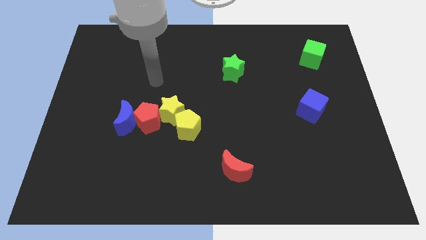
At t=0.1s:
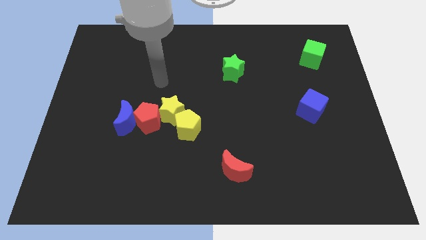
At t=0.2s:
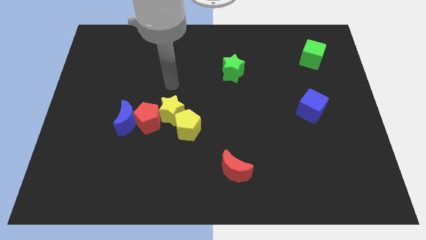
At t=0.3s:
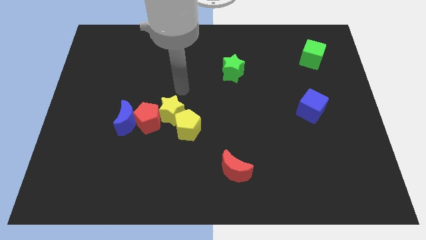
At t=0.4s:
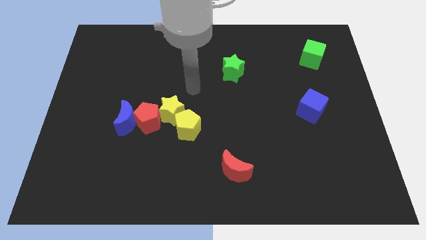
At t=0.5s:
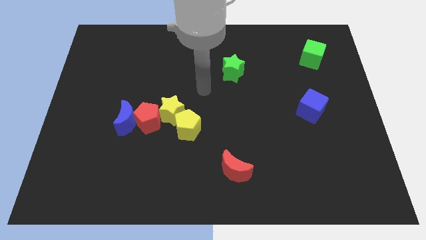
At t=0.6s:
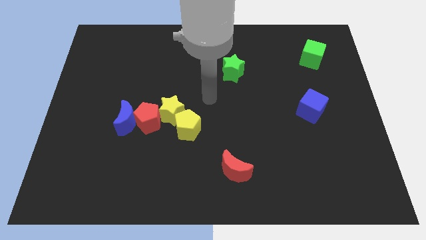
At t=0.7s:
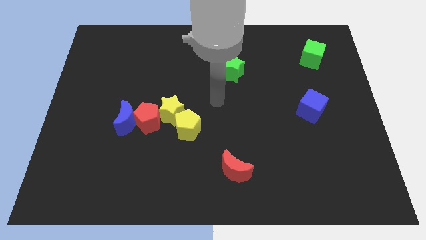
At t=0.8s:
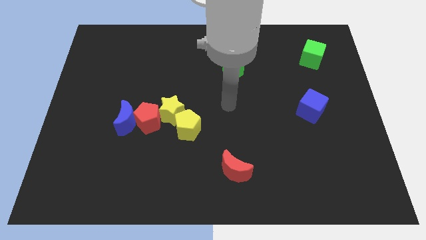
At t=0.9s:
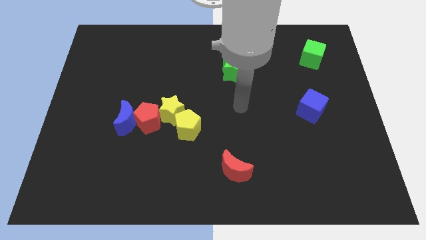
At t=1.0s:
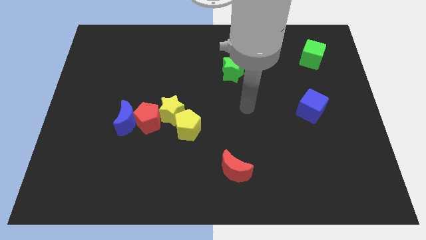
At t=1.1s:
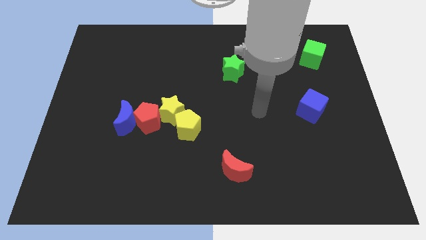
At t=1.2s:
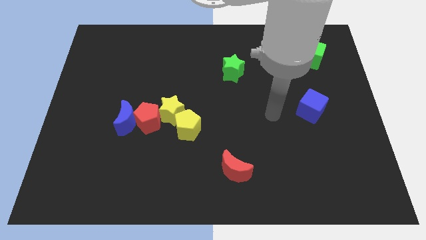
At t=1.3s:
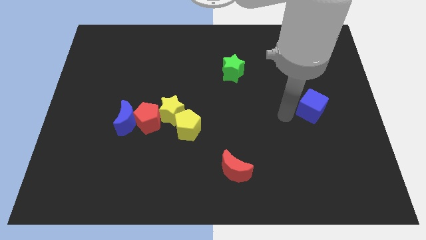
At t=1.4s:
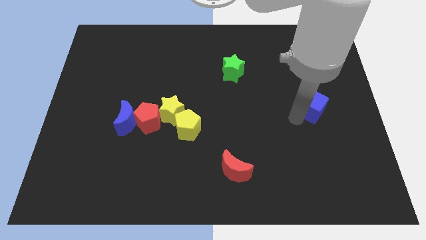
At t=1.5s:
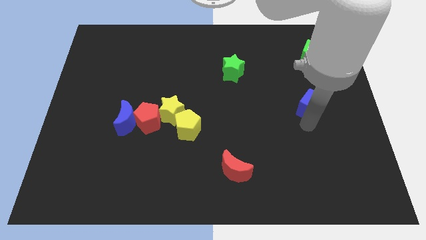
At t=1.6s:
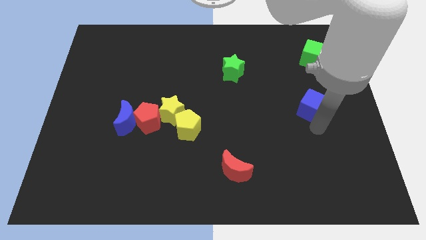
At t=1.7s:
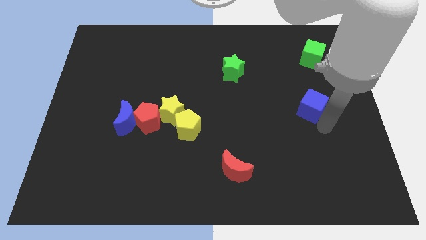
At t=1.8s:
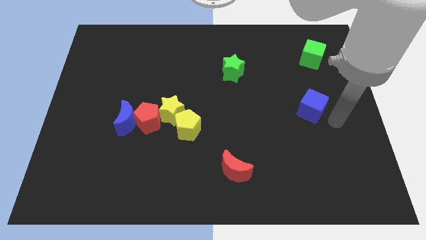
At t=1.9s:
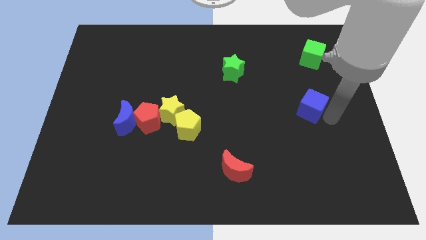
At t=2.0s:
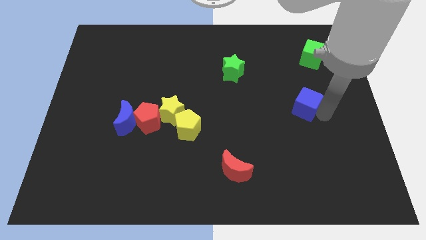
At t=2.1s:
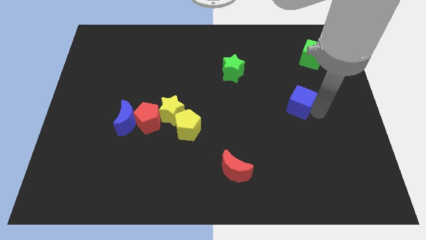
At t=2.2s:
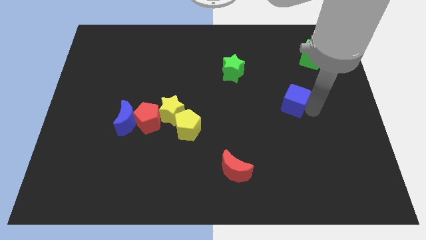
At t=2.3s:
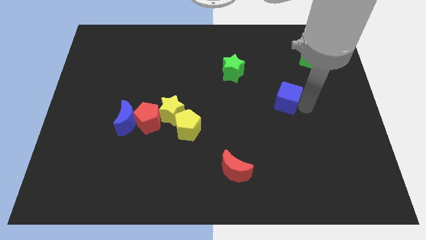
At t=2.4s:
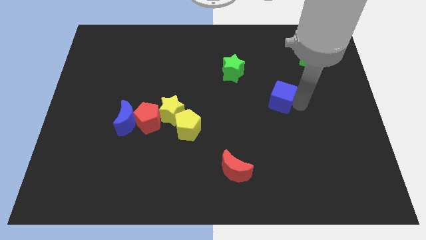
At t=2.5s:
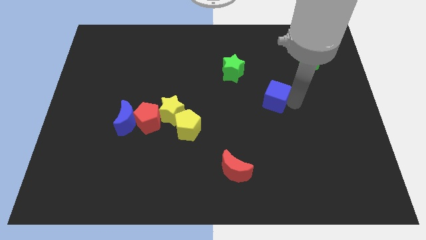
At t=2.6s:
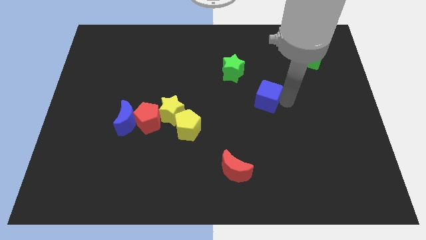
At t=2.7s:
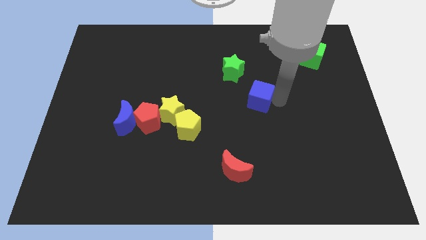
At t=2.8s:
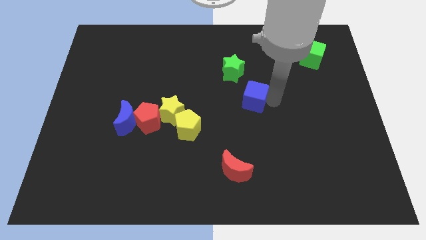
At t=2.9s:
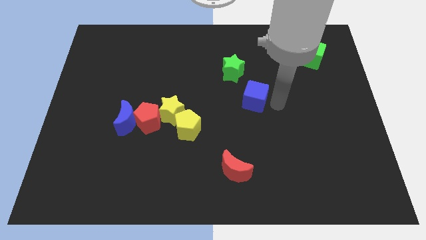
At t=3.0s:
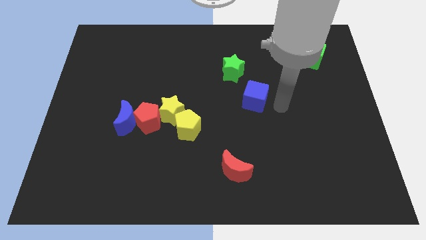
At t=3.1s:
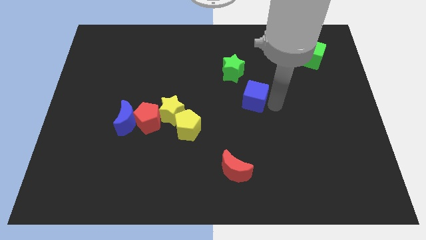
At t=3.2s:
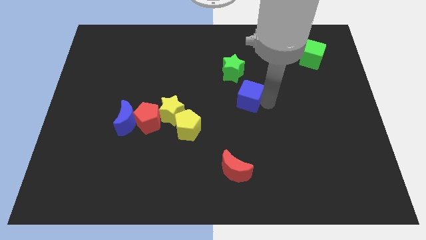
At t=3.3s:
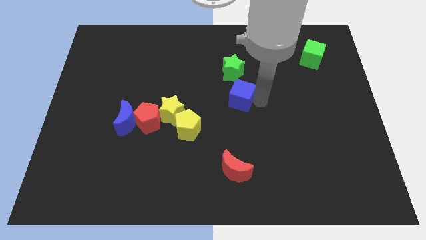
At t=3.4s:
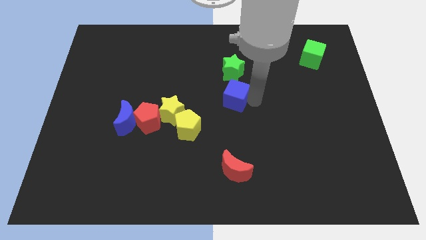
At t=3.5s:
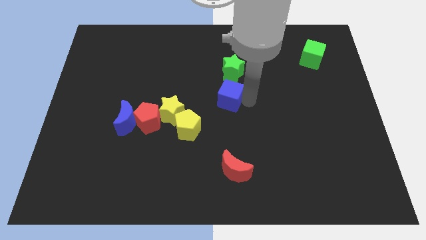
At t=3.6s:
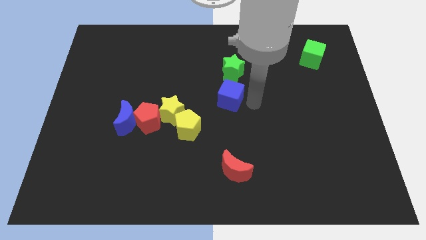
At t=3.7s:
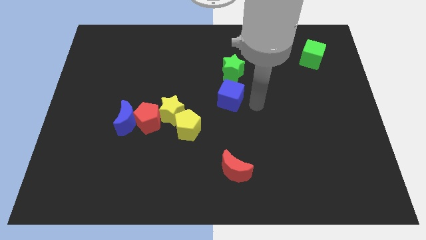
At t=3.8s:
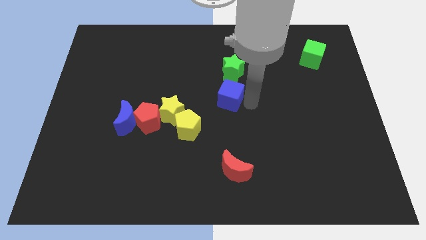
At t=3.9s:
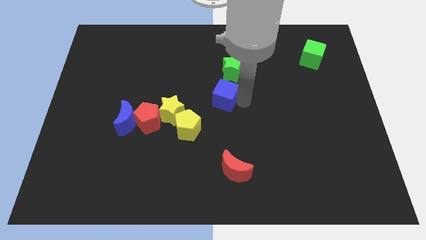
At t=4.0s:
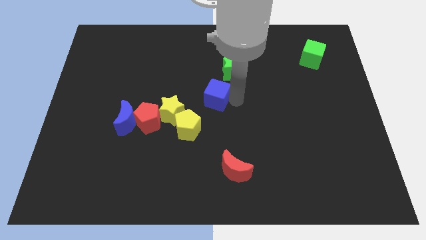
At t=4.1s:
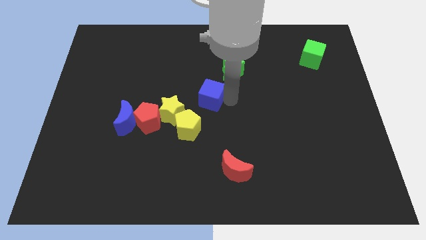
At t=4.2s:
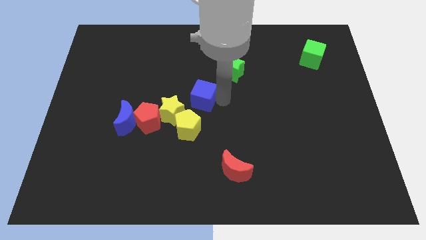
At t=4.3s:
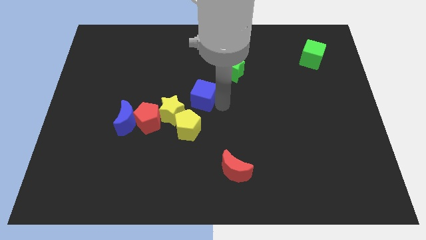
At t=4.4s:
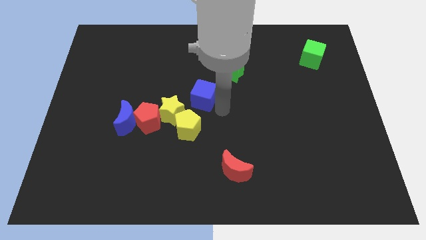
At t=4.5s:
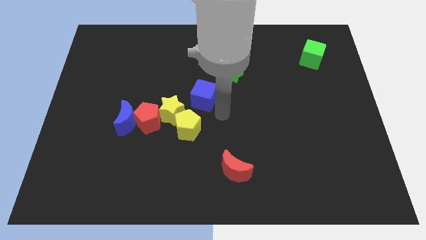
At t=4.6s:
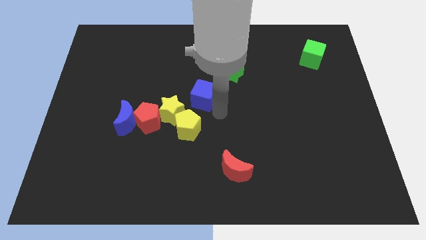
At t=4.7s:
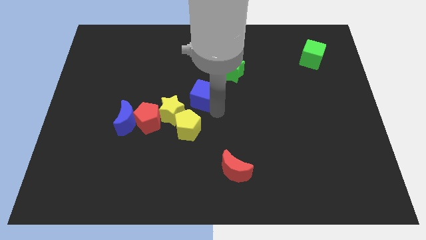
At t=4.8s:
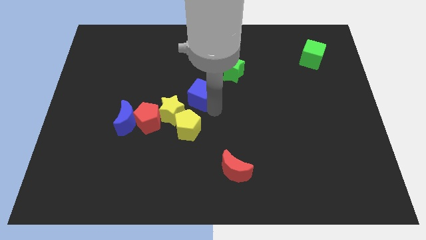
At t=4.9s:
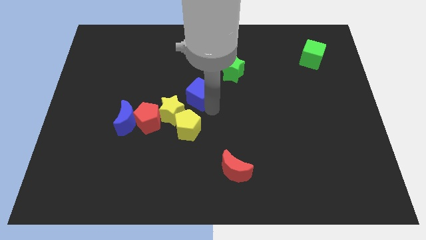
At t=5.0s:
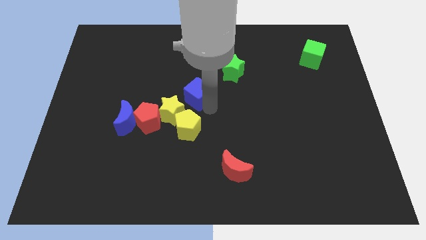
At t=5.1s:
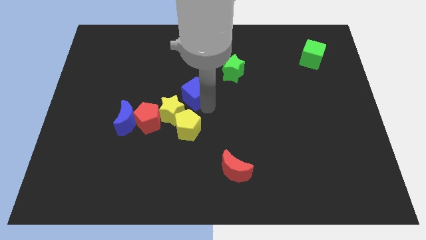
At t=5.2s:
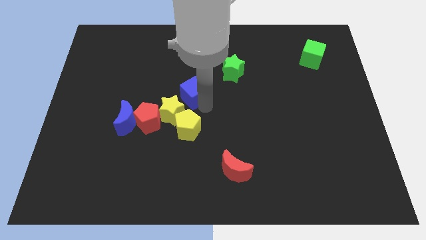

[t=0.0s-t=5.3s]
push the blue cube to the top of the yellow star

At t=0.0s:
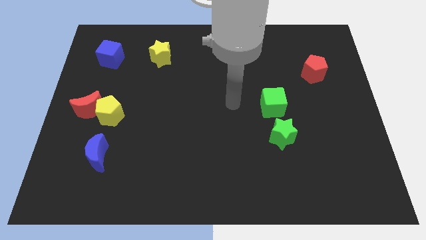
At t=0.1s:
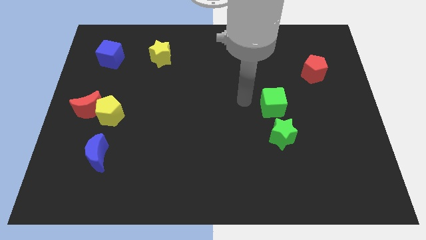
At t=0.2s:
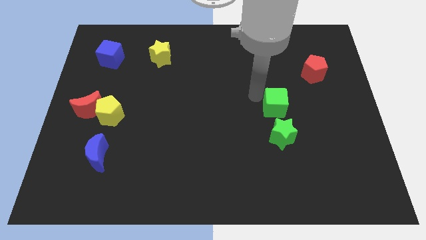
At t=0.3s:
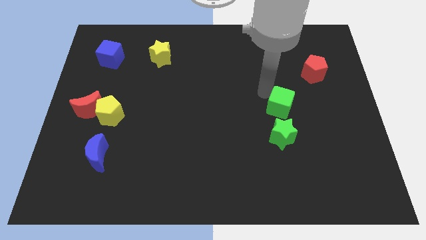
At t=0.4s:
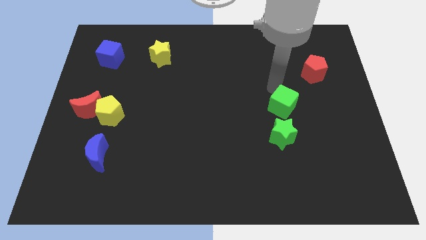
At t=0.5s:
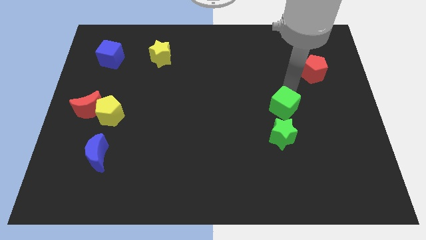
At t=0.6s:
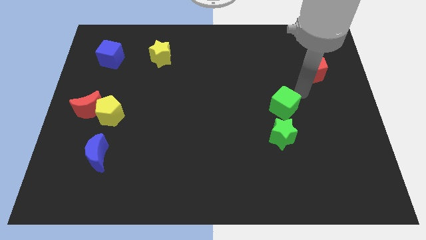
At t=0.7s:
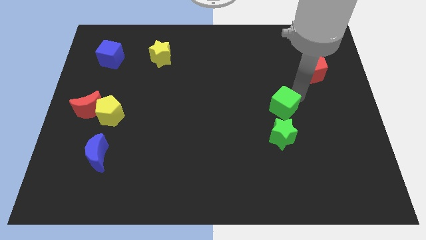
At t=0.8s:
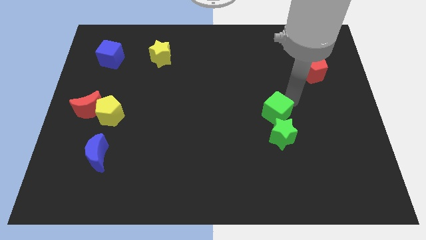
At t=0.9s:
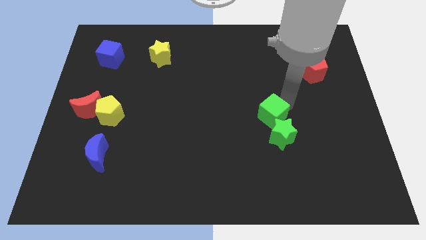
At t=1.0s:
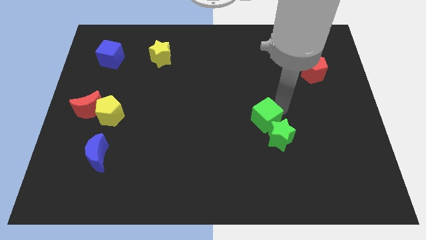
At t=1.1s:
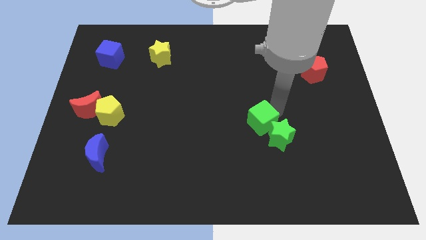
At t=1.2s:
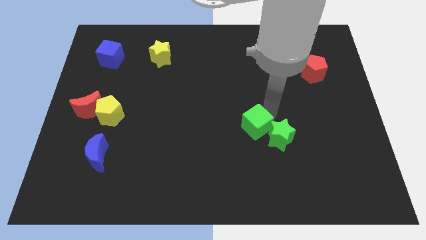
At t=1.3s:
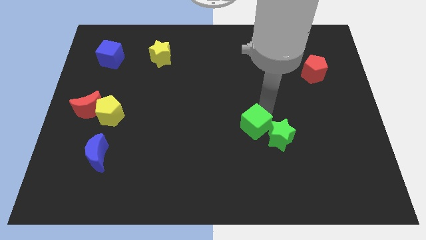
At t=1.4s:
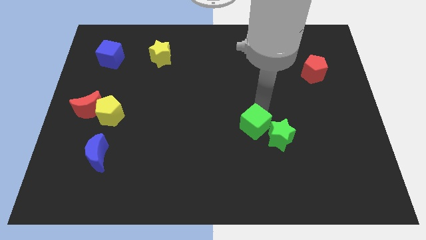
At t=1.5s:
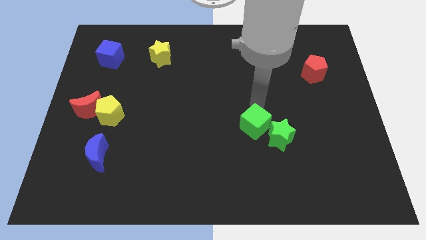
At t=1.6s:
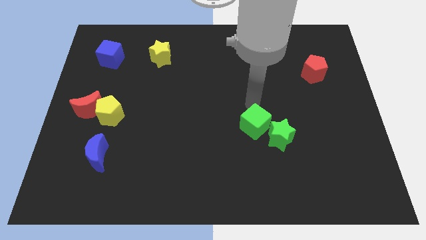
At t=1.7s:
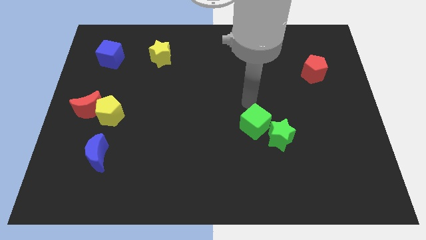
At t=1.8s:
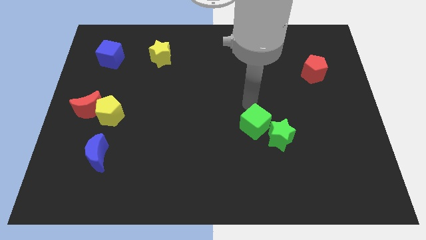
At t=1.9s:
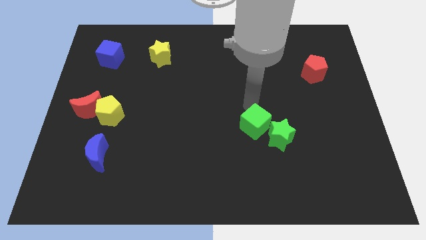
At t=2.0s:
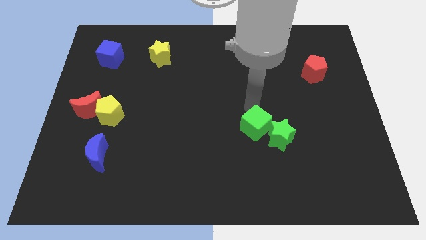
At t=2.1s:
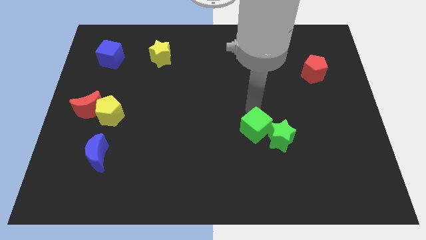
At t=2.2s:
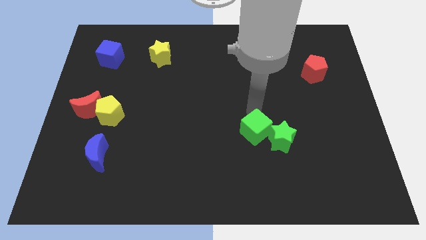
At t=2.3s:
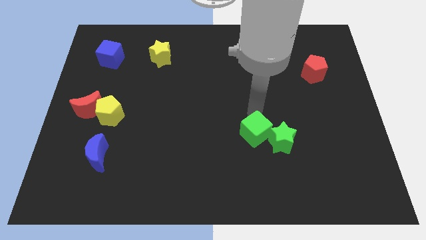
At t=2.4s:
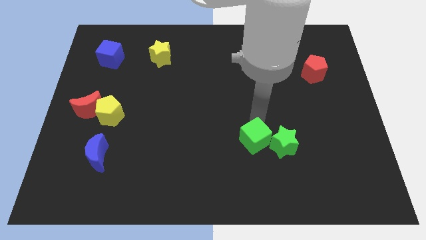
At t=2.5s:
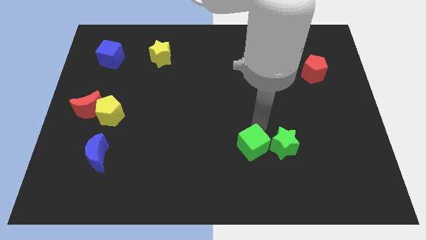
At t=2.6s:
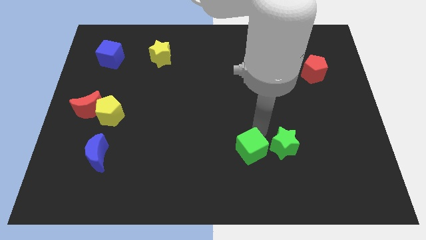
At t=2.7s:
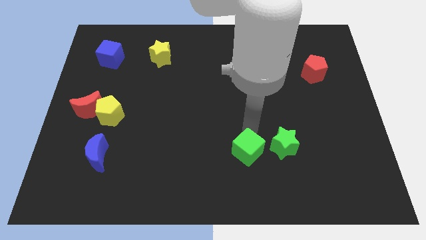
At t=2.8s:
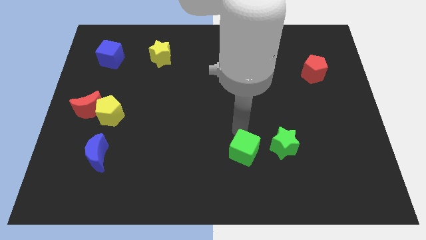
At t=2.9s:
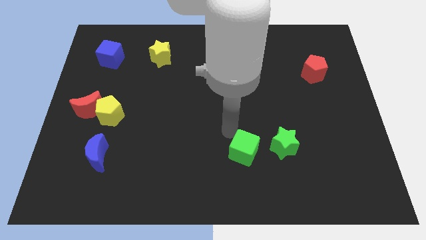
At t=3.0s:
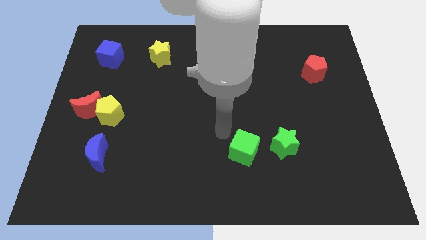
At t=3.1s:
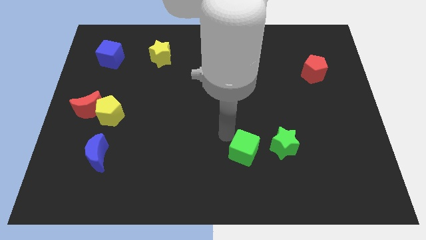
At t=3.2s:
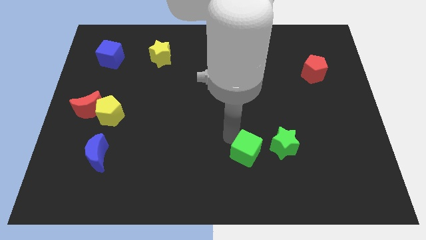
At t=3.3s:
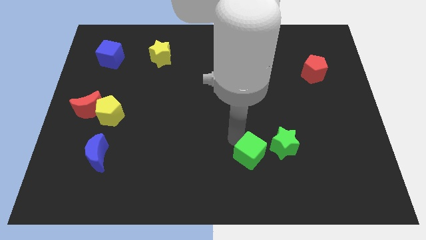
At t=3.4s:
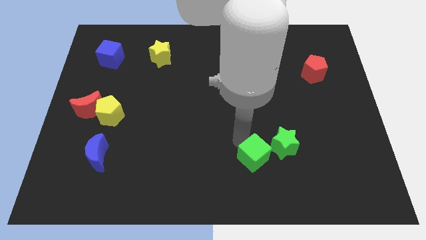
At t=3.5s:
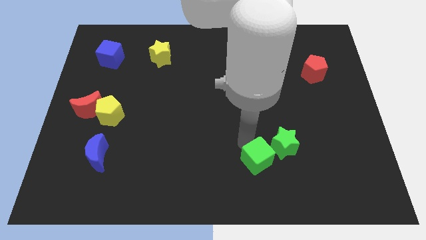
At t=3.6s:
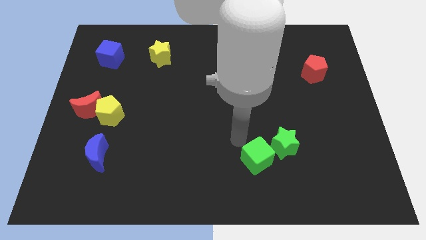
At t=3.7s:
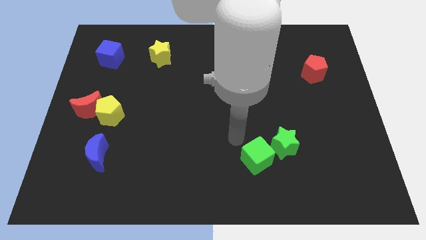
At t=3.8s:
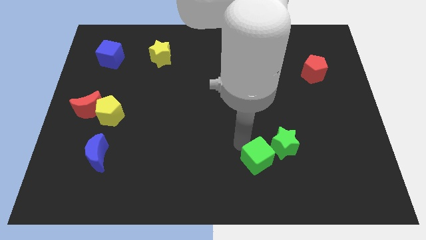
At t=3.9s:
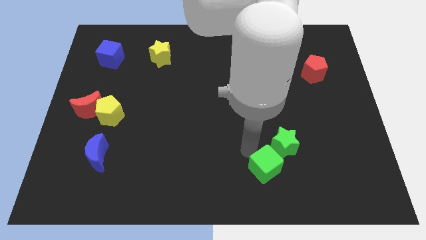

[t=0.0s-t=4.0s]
push the green cube below the green star
